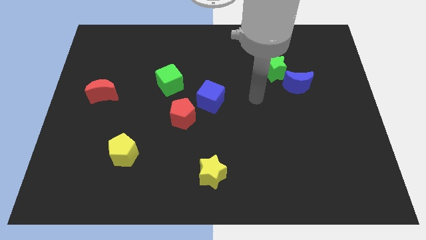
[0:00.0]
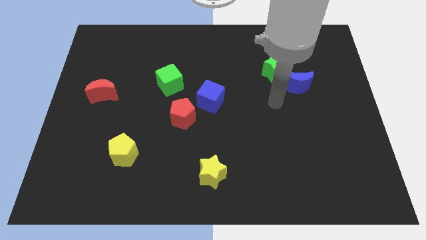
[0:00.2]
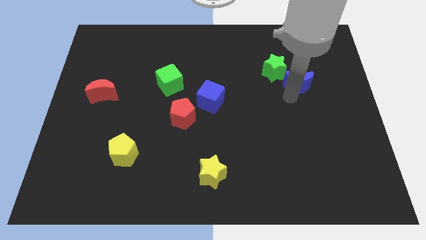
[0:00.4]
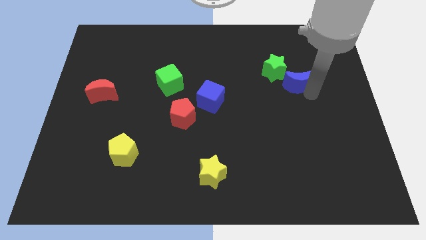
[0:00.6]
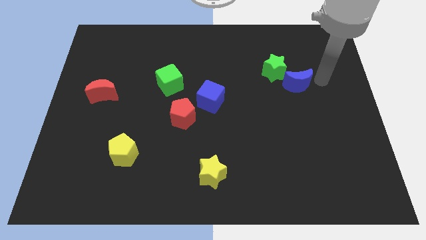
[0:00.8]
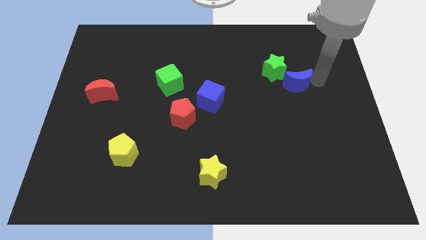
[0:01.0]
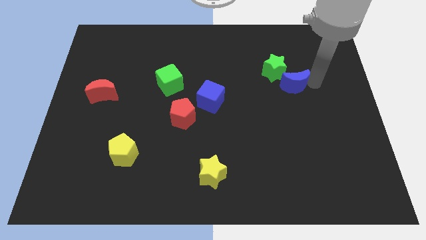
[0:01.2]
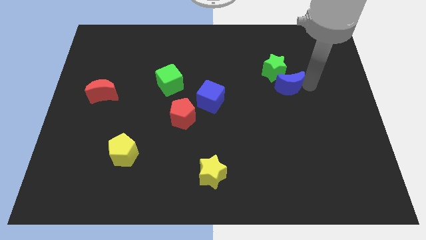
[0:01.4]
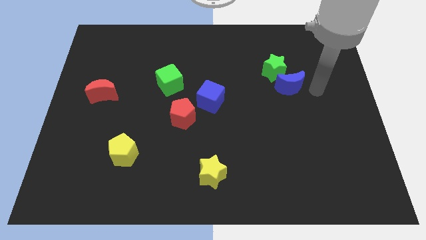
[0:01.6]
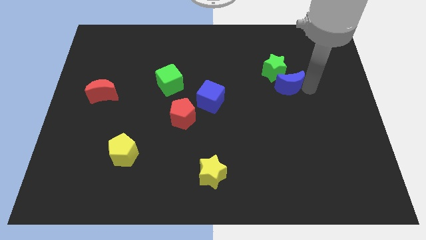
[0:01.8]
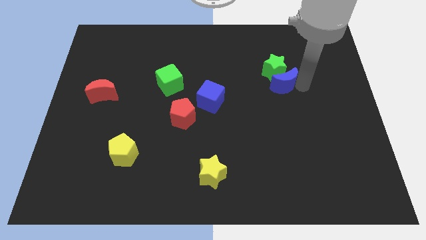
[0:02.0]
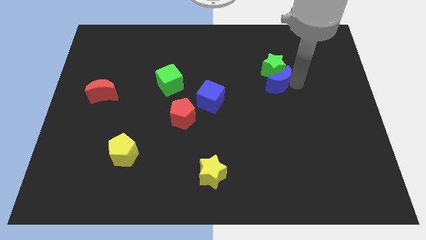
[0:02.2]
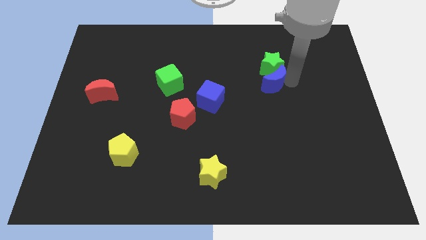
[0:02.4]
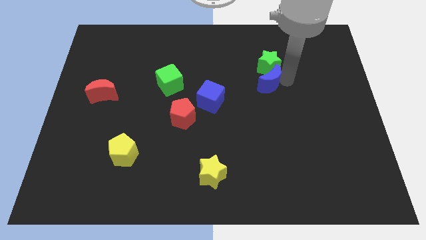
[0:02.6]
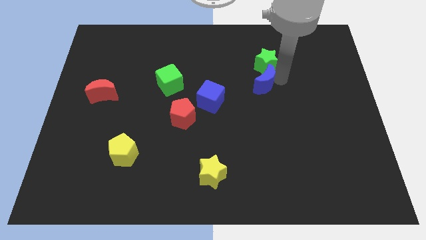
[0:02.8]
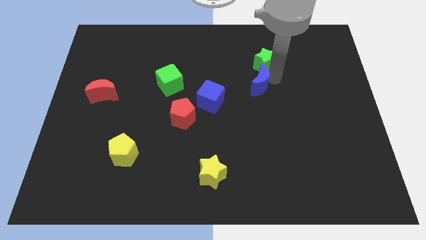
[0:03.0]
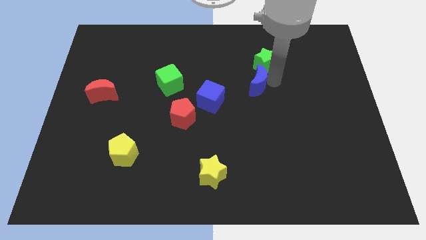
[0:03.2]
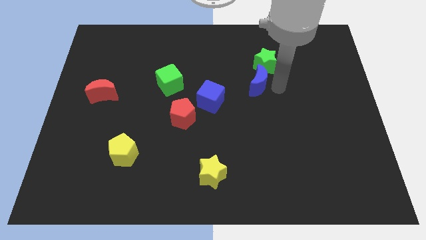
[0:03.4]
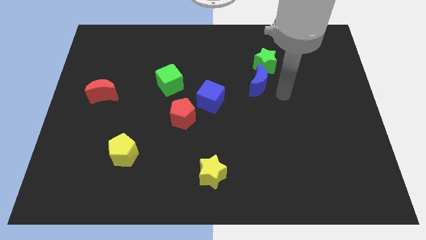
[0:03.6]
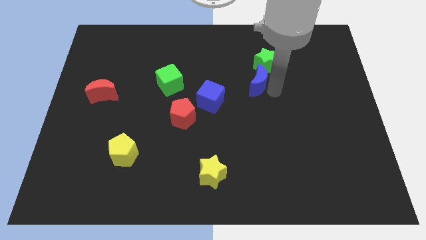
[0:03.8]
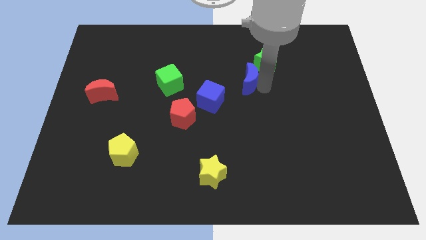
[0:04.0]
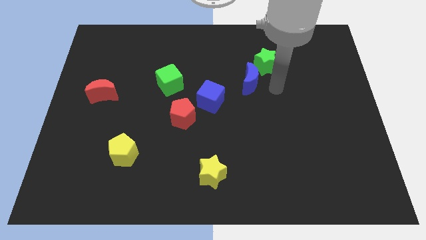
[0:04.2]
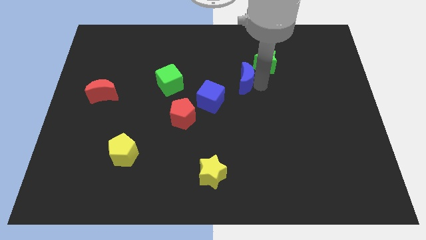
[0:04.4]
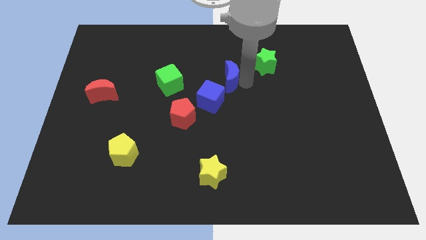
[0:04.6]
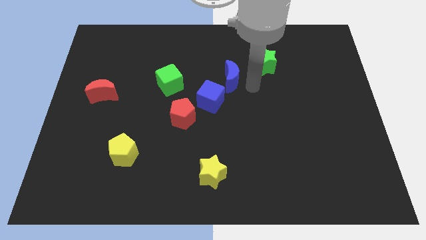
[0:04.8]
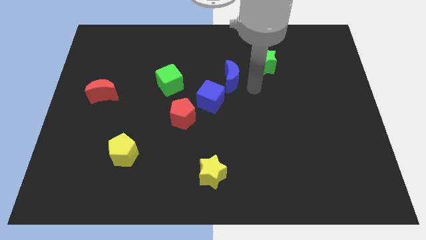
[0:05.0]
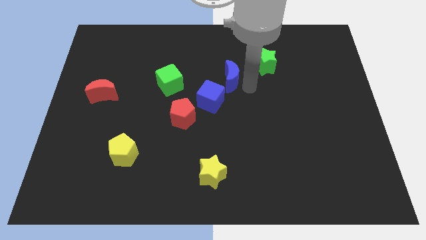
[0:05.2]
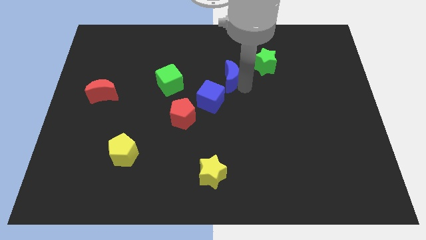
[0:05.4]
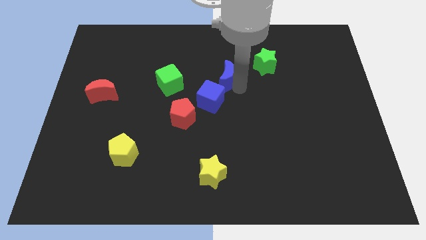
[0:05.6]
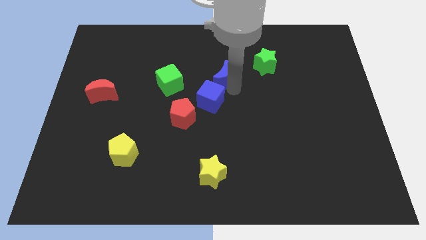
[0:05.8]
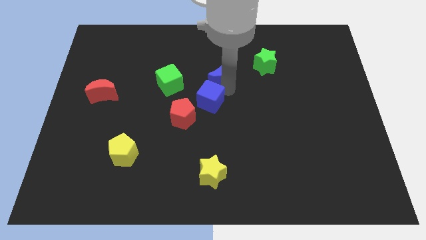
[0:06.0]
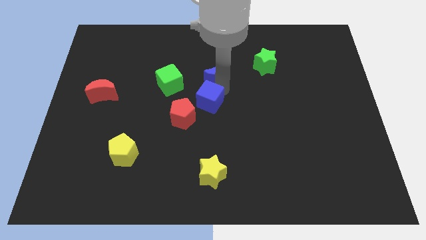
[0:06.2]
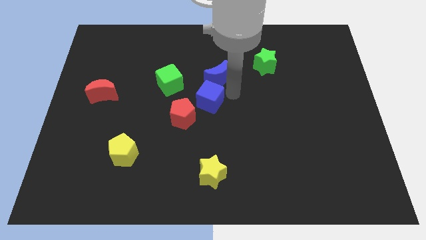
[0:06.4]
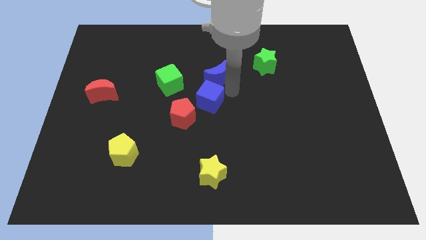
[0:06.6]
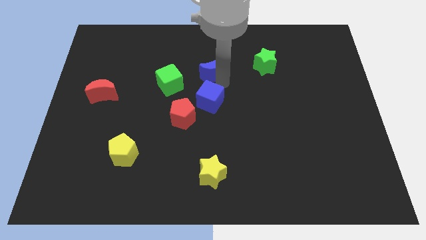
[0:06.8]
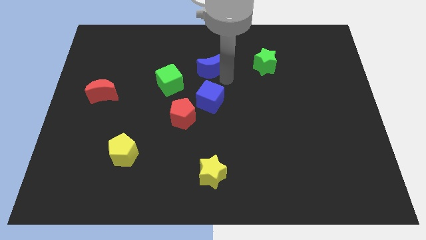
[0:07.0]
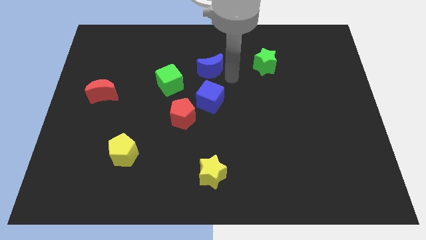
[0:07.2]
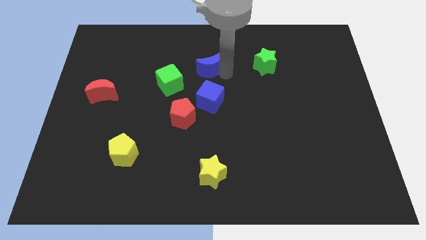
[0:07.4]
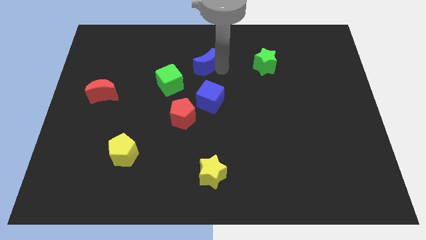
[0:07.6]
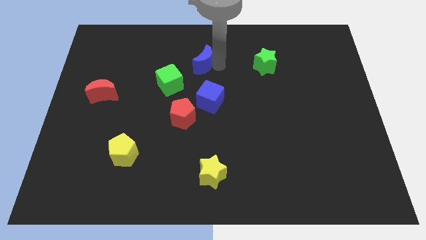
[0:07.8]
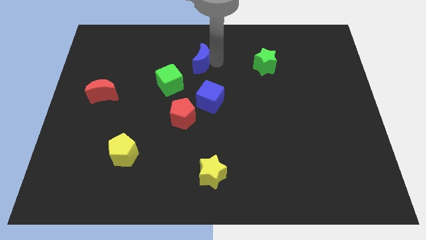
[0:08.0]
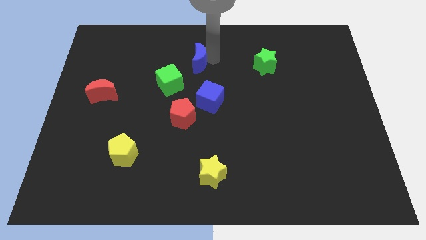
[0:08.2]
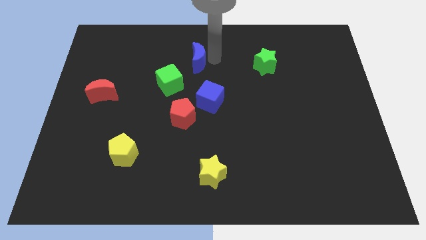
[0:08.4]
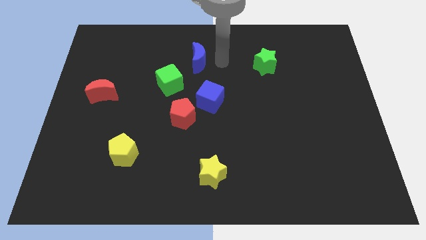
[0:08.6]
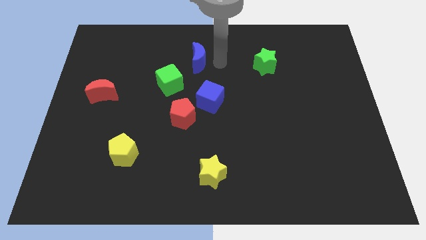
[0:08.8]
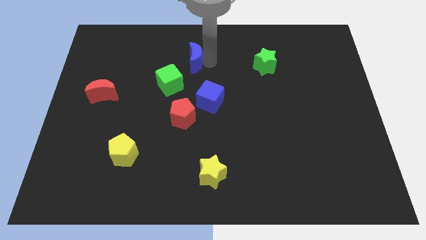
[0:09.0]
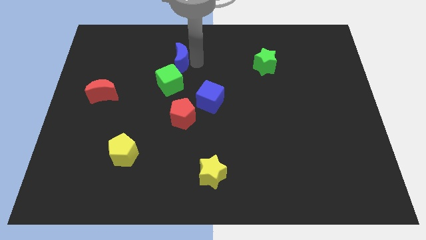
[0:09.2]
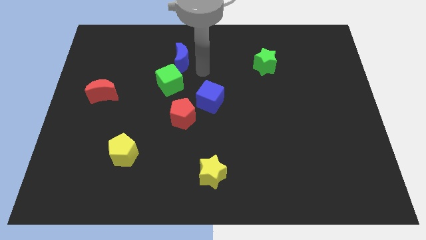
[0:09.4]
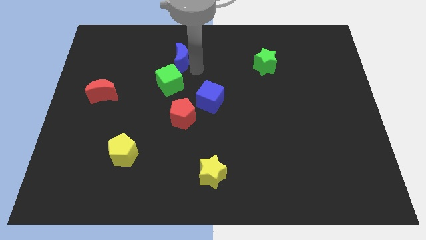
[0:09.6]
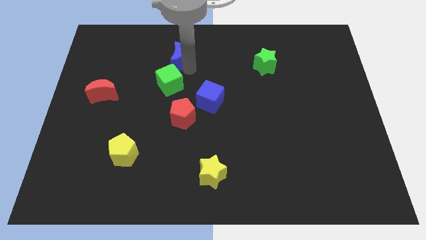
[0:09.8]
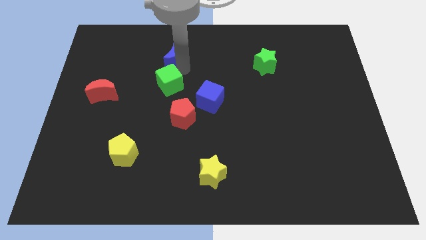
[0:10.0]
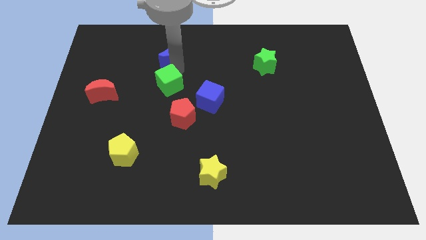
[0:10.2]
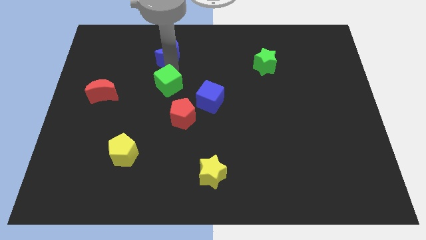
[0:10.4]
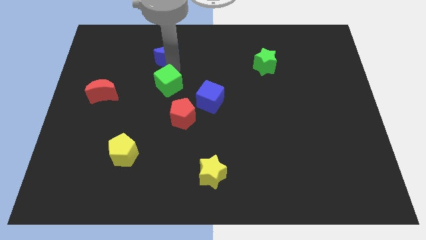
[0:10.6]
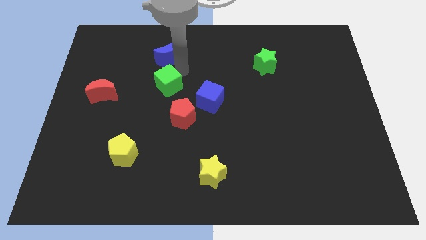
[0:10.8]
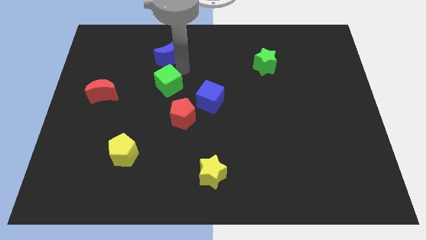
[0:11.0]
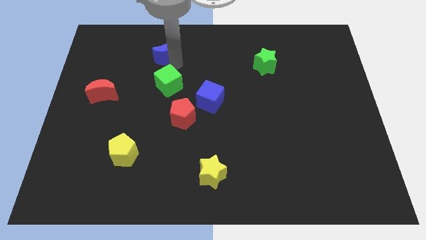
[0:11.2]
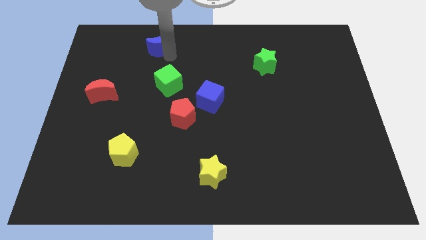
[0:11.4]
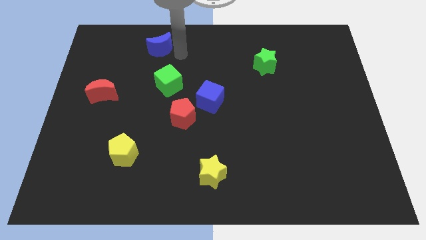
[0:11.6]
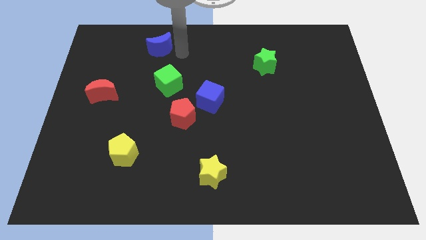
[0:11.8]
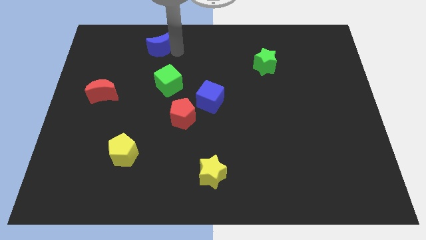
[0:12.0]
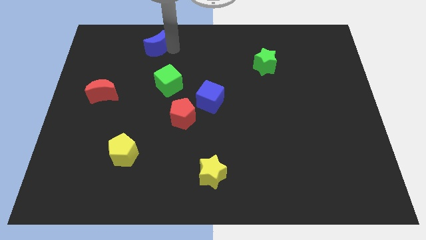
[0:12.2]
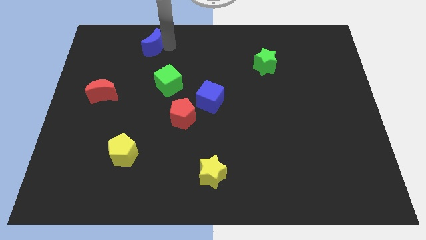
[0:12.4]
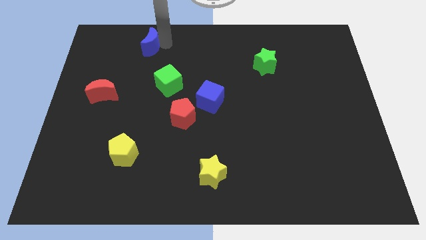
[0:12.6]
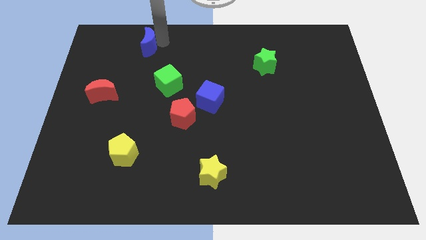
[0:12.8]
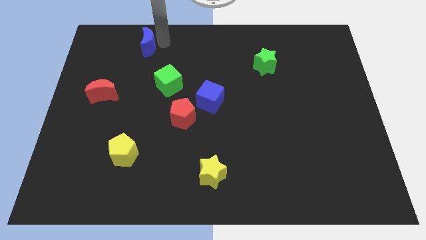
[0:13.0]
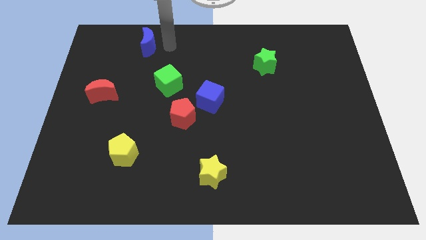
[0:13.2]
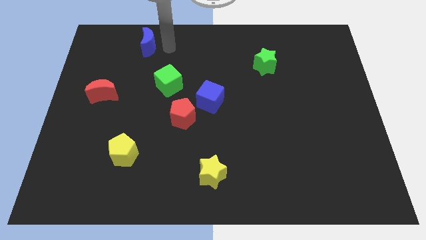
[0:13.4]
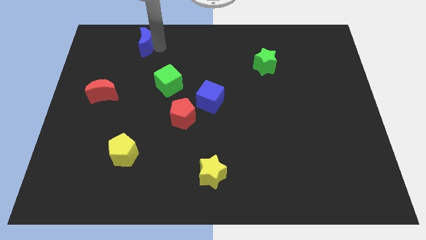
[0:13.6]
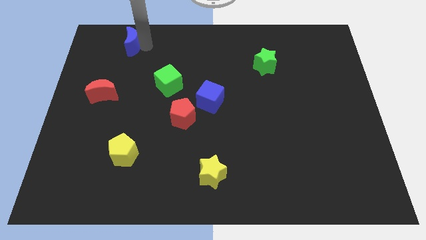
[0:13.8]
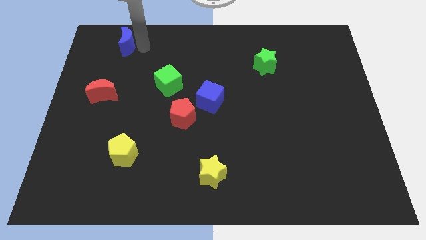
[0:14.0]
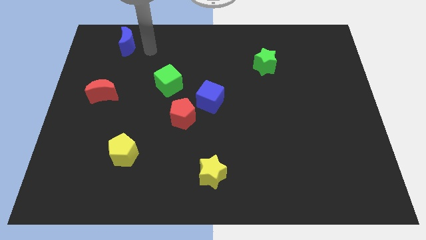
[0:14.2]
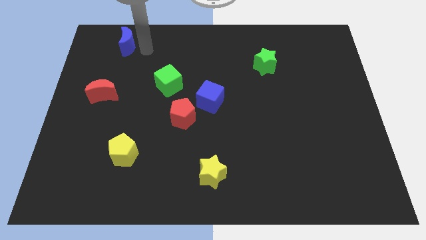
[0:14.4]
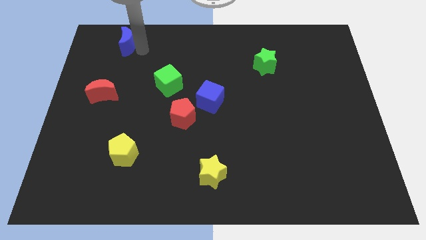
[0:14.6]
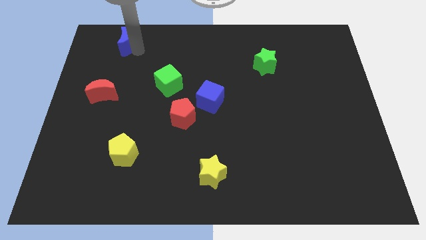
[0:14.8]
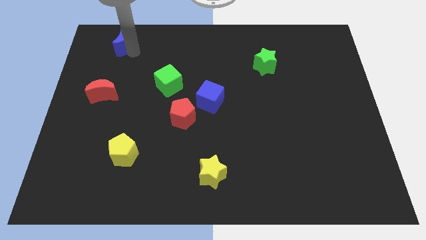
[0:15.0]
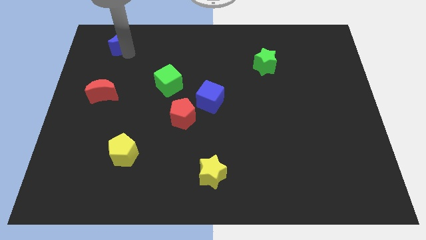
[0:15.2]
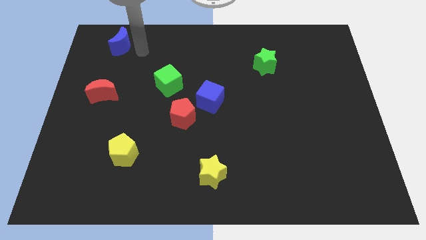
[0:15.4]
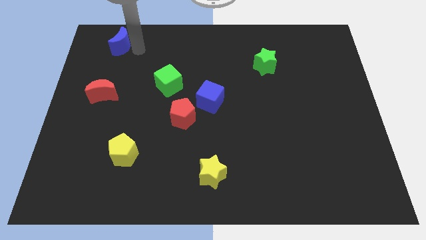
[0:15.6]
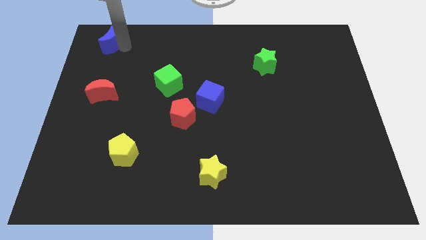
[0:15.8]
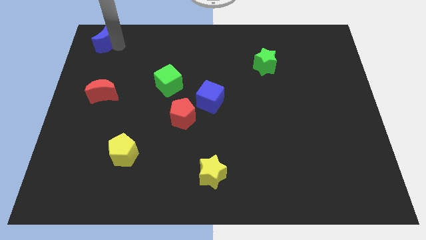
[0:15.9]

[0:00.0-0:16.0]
put the blue moon to the top left corner
